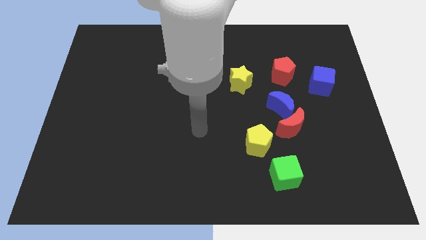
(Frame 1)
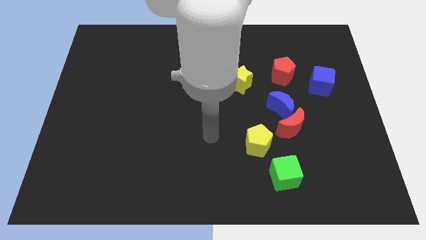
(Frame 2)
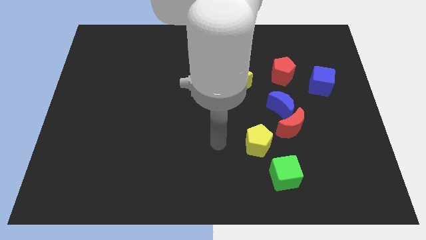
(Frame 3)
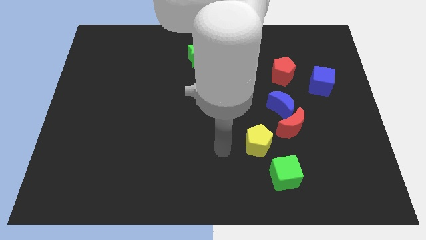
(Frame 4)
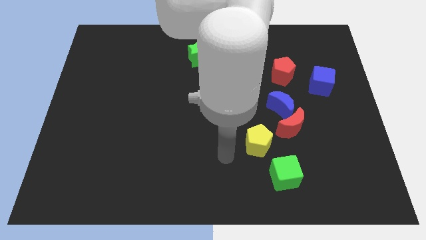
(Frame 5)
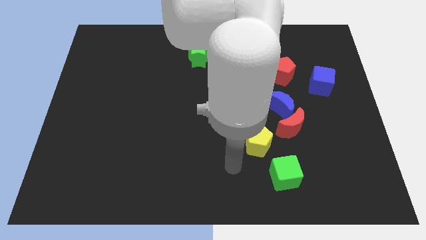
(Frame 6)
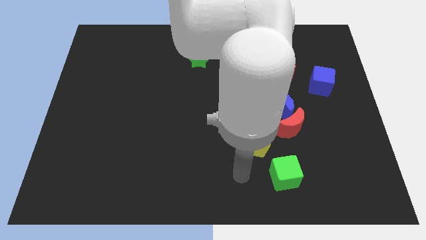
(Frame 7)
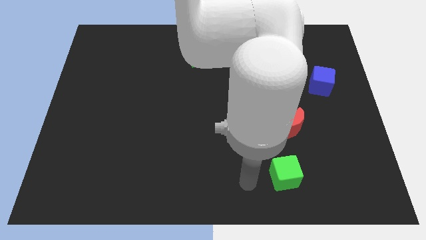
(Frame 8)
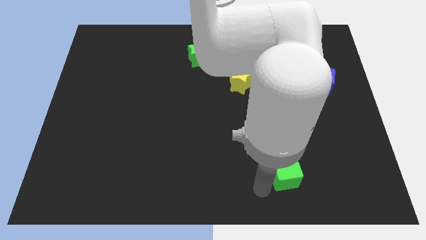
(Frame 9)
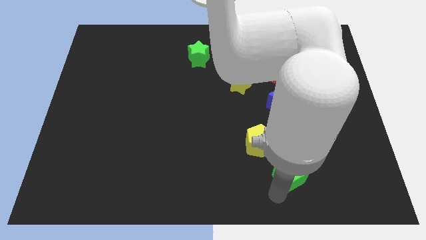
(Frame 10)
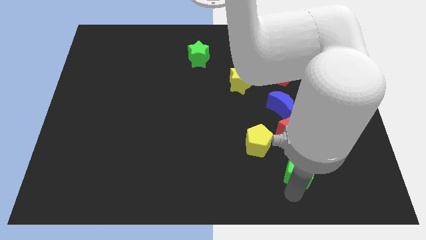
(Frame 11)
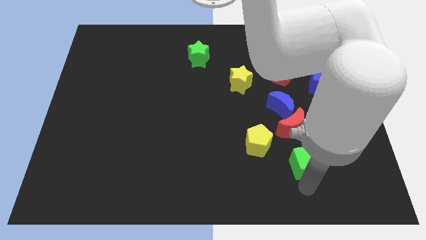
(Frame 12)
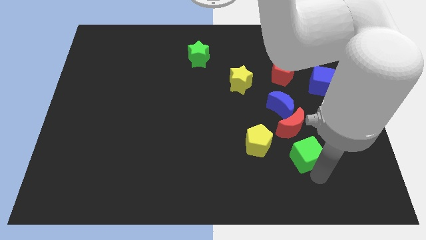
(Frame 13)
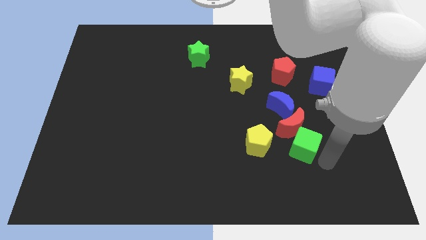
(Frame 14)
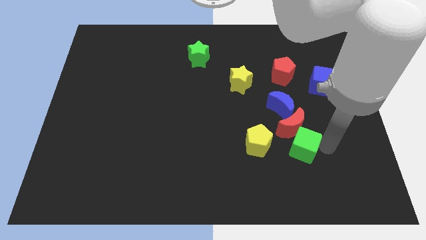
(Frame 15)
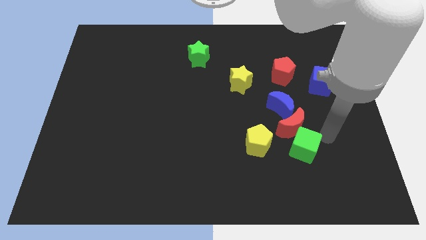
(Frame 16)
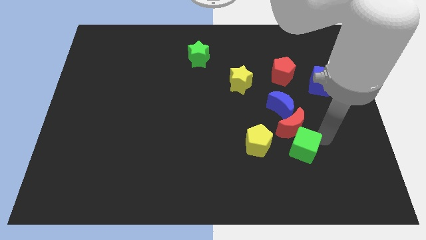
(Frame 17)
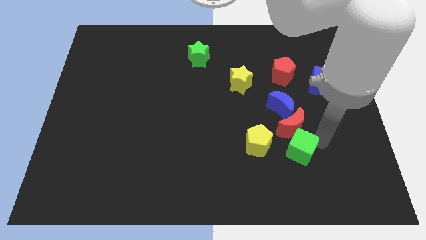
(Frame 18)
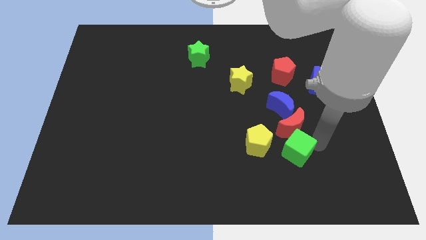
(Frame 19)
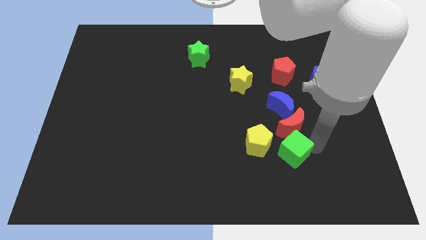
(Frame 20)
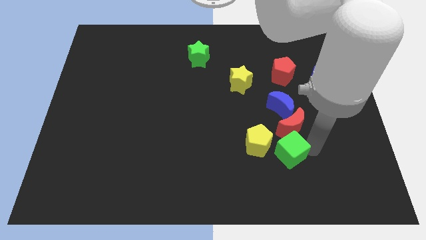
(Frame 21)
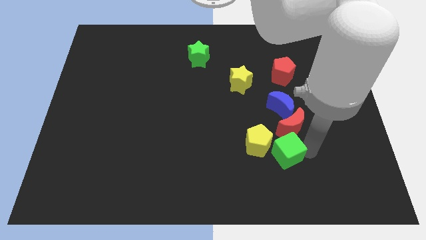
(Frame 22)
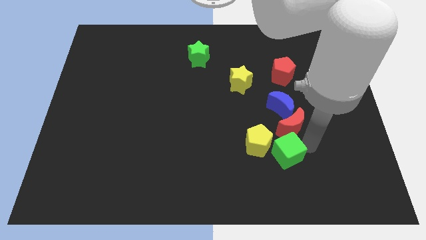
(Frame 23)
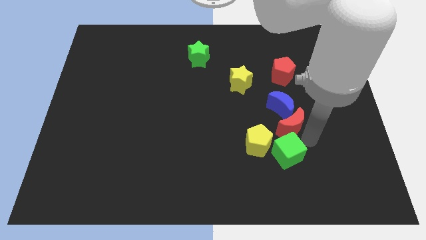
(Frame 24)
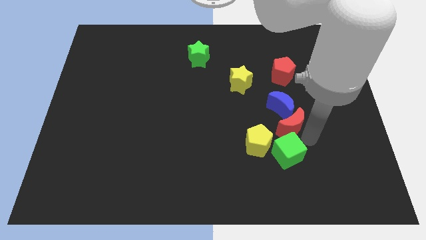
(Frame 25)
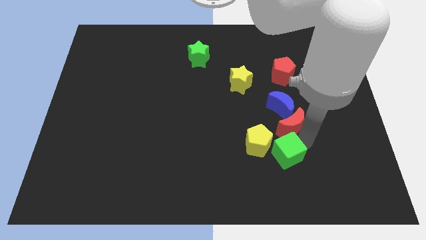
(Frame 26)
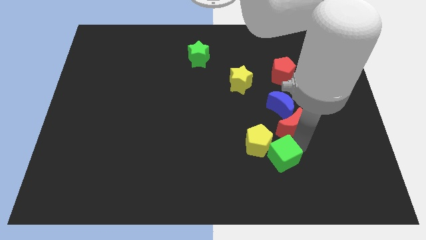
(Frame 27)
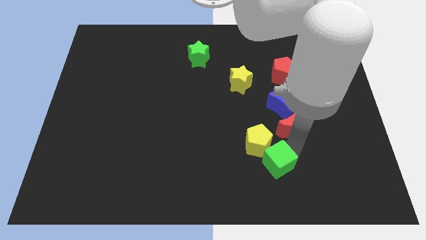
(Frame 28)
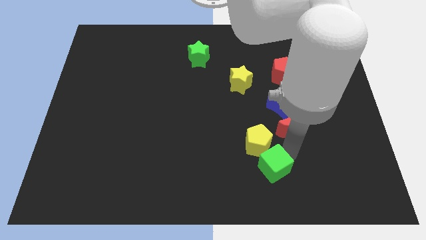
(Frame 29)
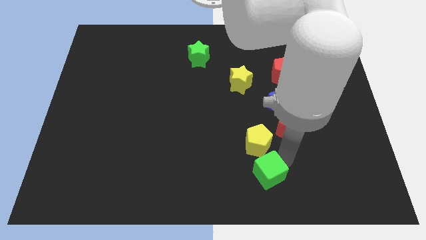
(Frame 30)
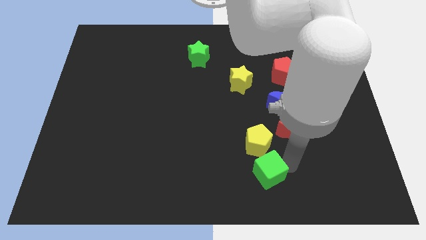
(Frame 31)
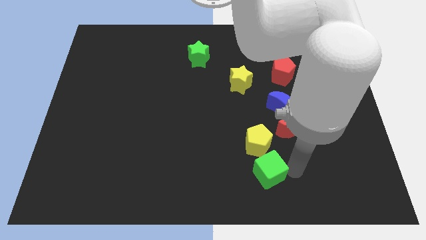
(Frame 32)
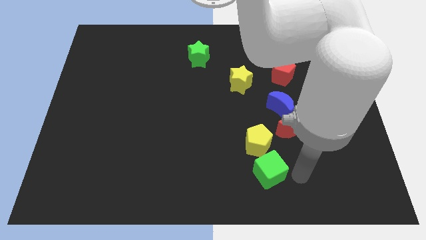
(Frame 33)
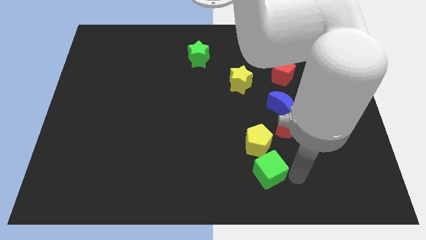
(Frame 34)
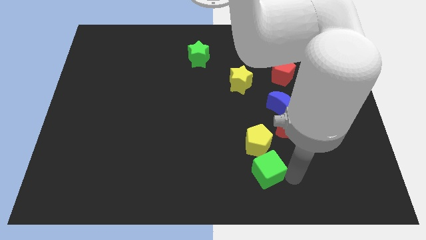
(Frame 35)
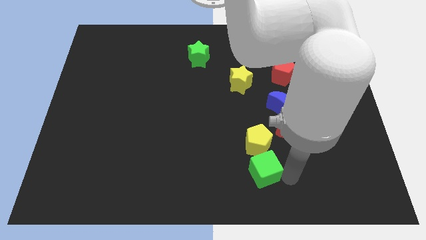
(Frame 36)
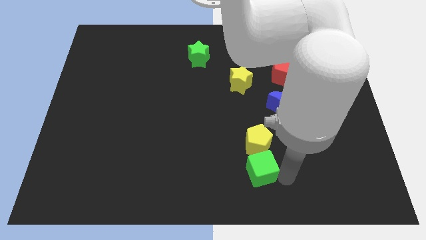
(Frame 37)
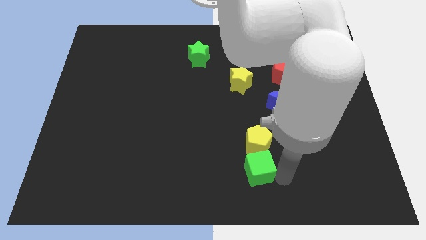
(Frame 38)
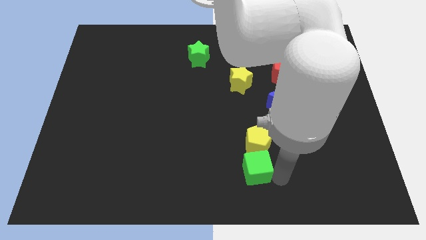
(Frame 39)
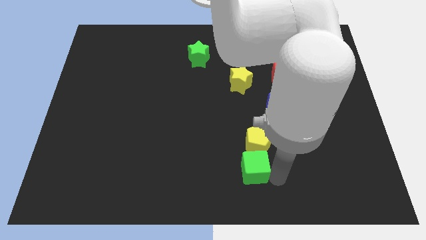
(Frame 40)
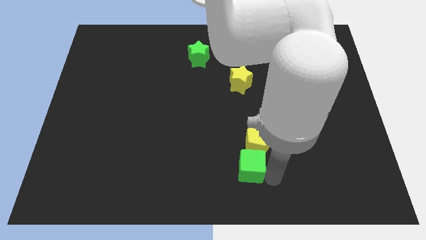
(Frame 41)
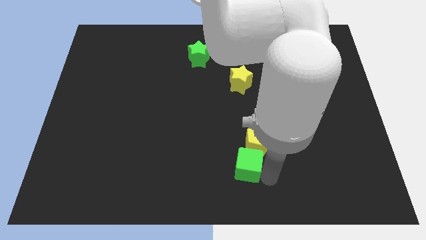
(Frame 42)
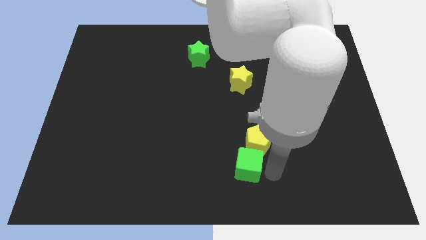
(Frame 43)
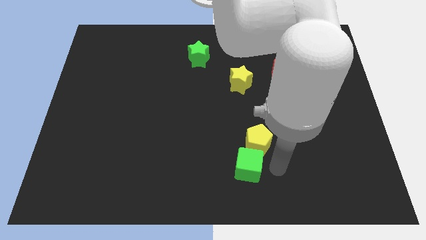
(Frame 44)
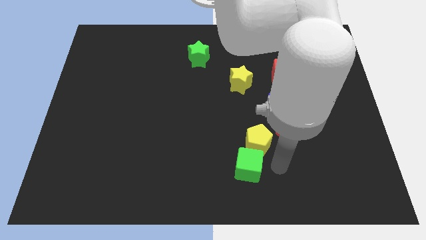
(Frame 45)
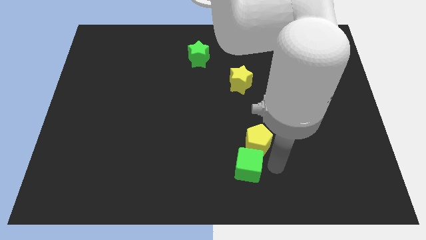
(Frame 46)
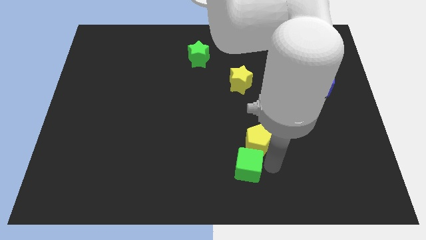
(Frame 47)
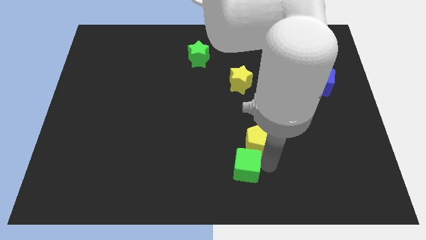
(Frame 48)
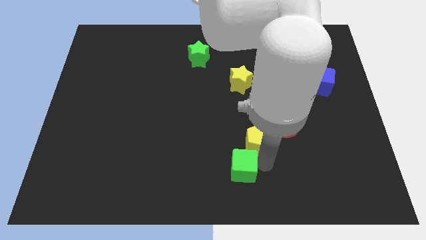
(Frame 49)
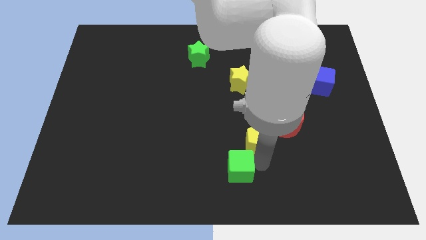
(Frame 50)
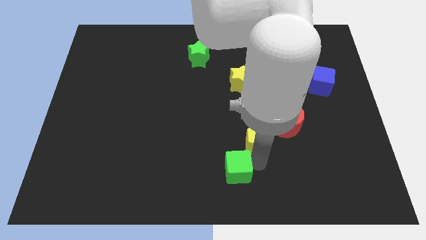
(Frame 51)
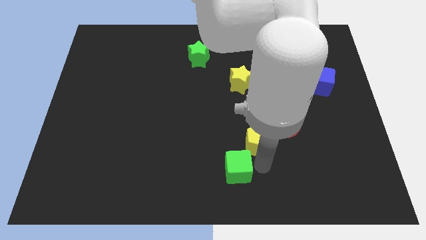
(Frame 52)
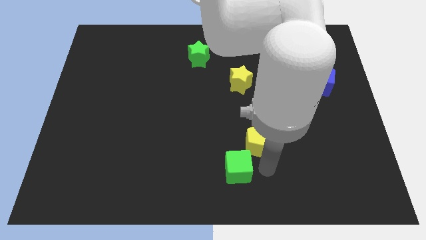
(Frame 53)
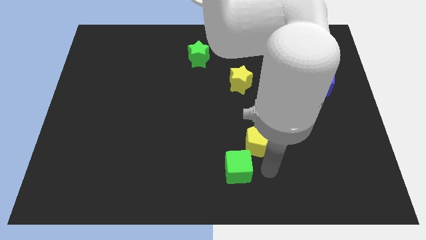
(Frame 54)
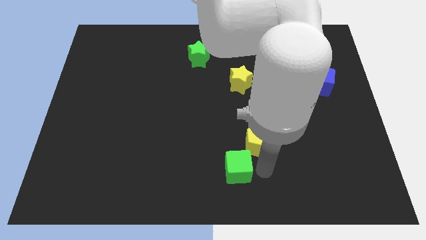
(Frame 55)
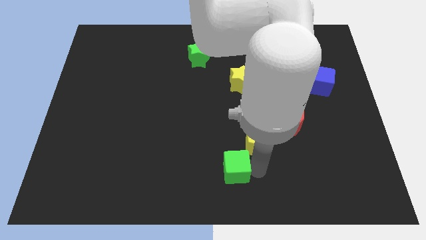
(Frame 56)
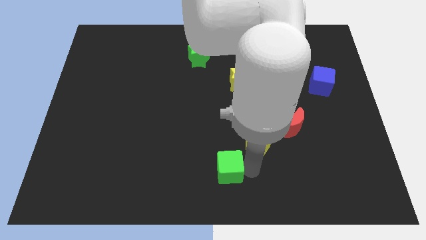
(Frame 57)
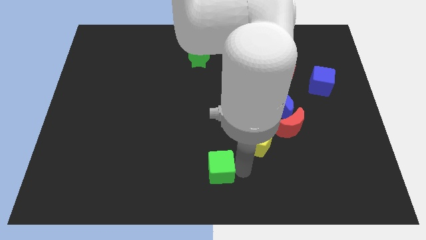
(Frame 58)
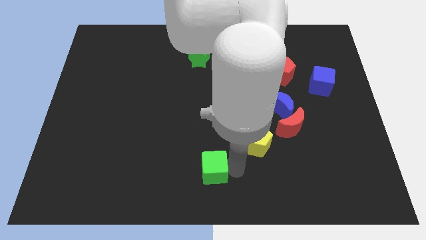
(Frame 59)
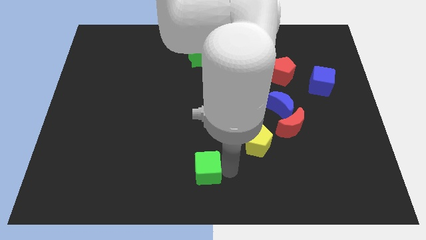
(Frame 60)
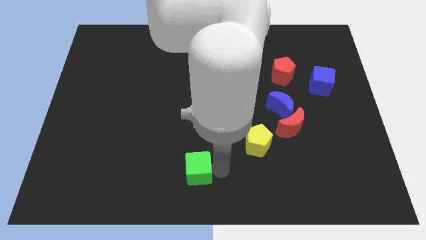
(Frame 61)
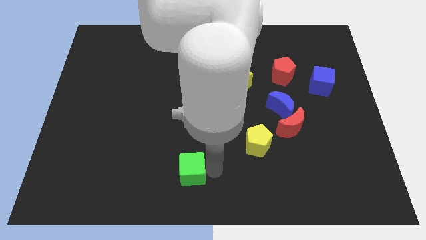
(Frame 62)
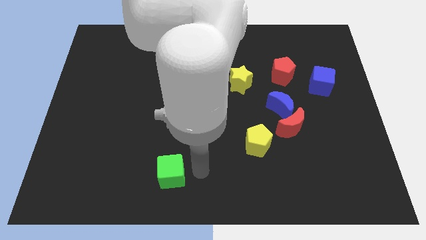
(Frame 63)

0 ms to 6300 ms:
slide the green cube to the left

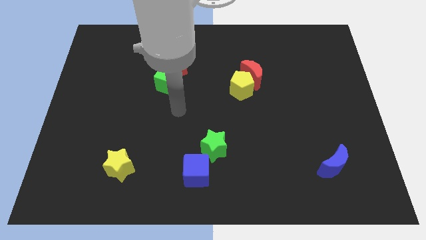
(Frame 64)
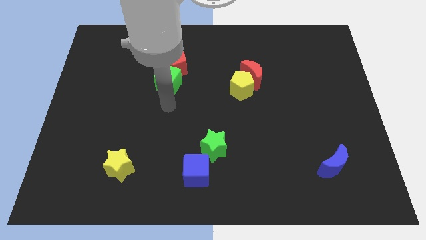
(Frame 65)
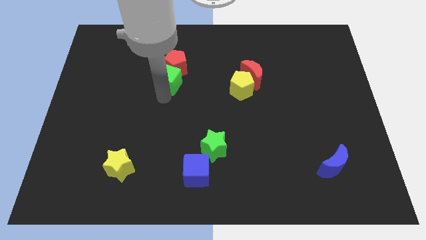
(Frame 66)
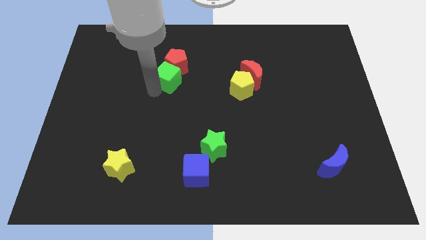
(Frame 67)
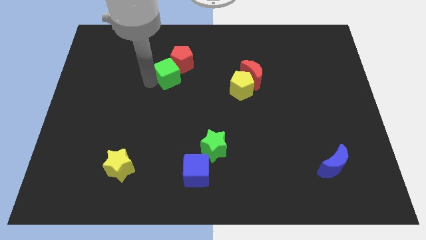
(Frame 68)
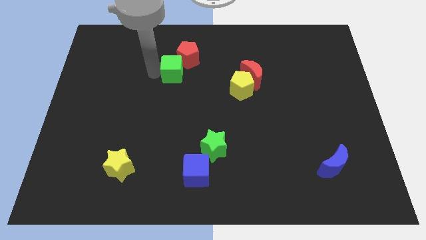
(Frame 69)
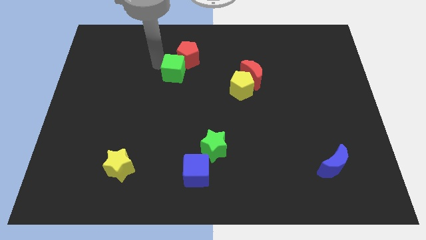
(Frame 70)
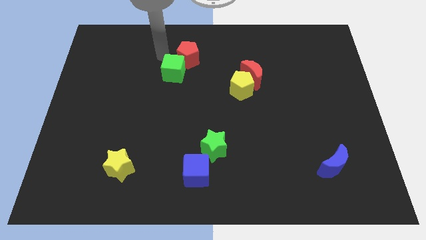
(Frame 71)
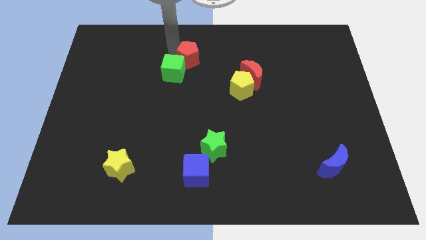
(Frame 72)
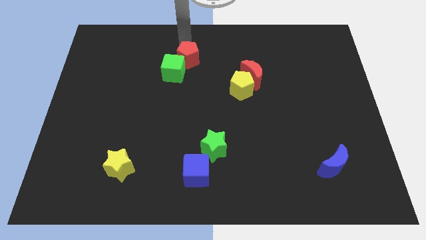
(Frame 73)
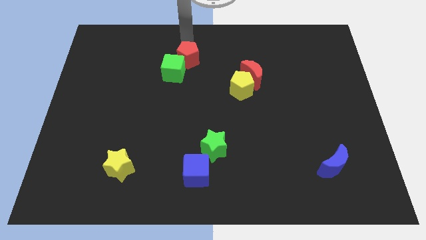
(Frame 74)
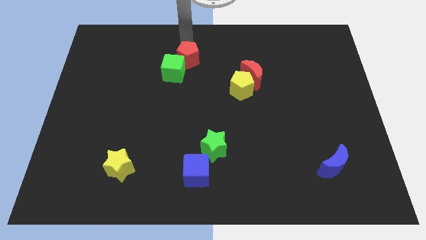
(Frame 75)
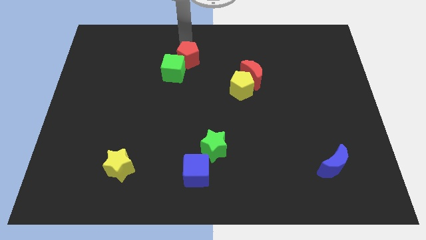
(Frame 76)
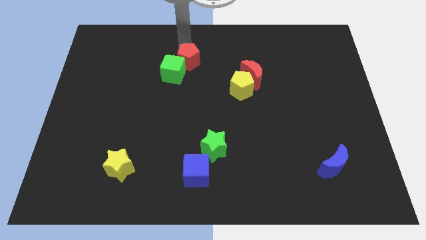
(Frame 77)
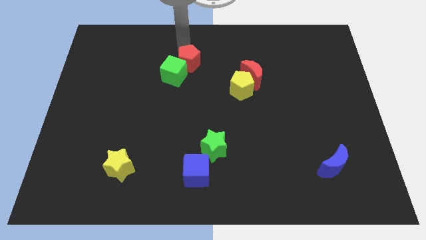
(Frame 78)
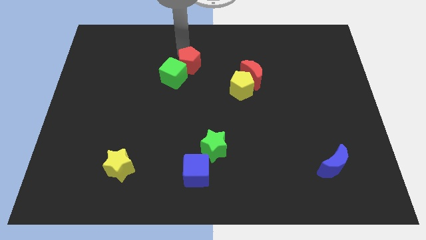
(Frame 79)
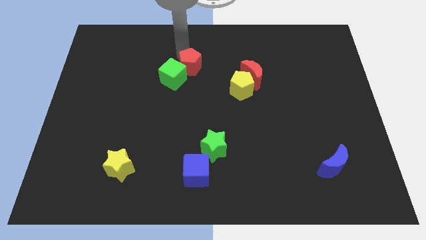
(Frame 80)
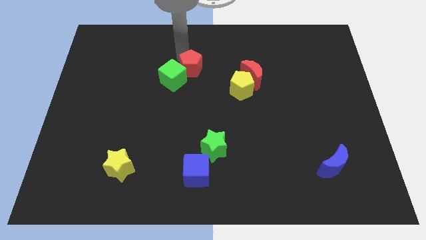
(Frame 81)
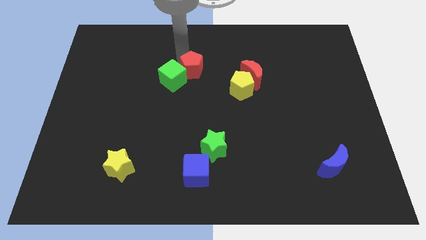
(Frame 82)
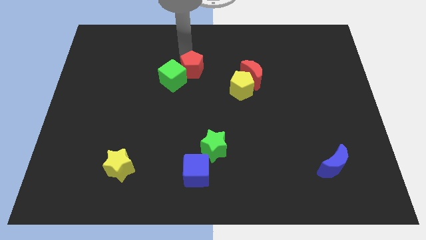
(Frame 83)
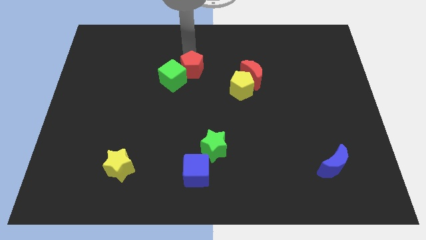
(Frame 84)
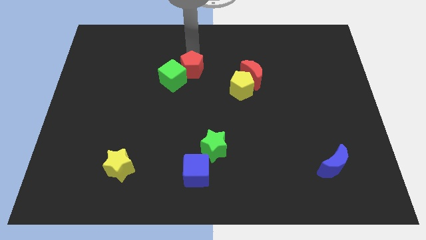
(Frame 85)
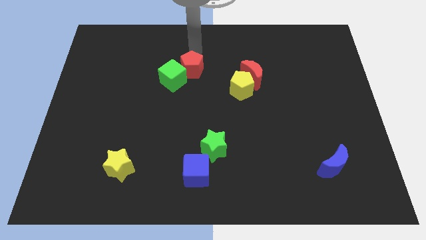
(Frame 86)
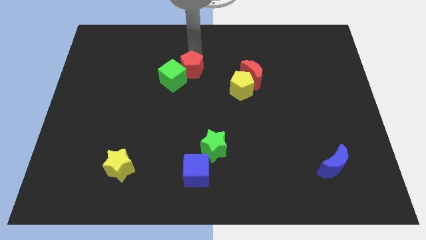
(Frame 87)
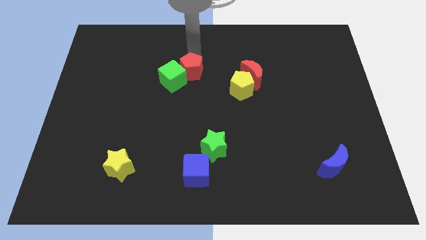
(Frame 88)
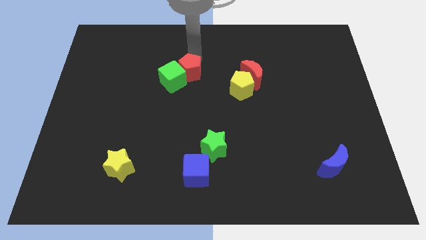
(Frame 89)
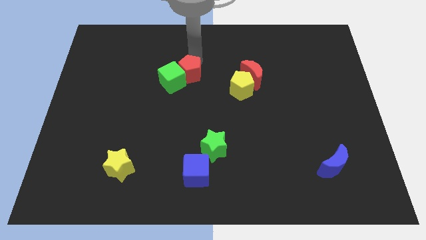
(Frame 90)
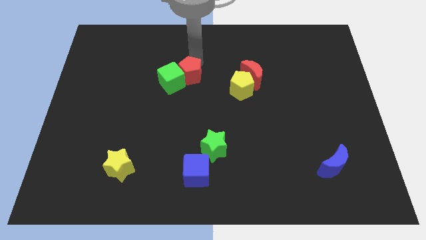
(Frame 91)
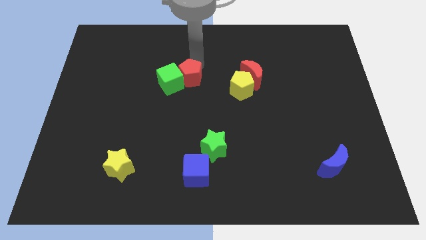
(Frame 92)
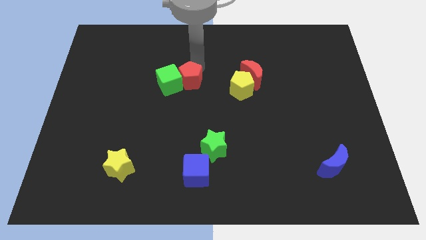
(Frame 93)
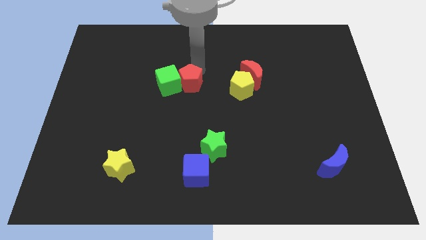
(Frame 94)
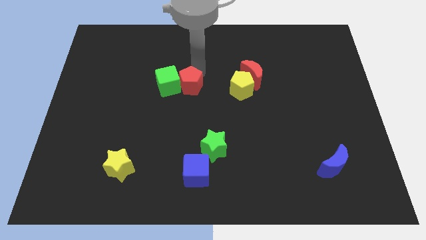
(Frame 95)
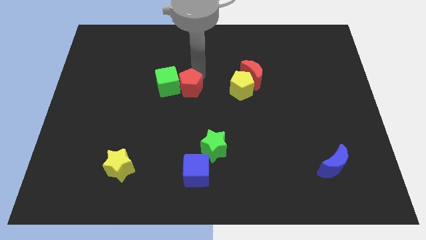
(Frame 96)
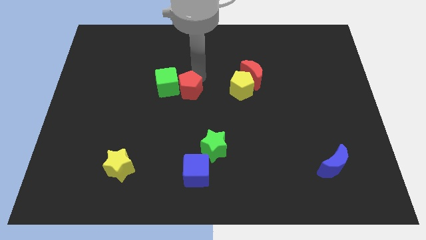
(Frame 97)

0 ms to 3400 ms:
move the red pentagon downwards slightly
